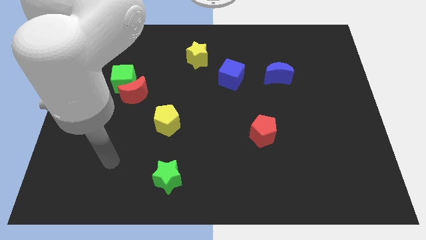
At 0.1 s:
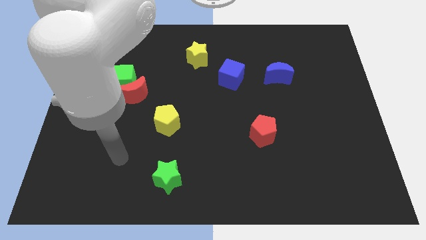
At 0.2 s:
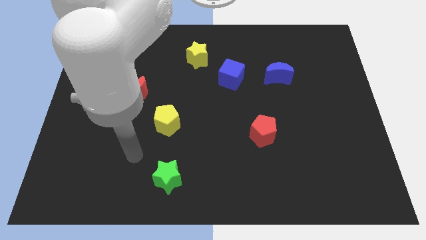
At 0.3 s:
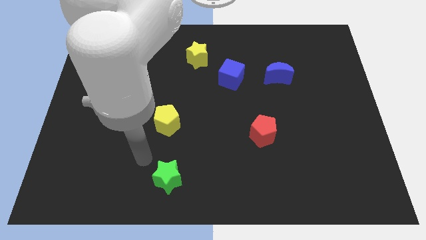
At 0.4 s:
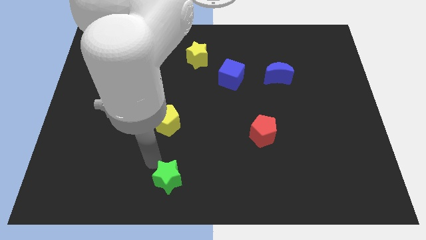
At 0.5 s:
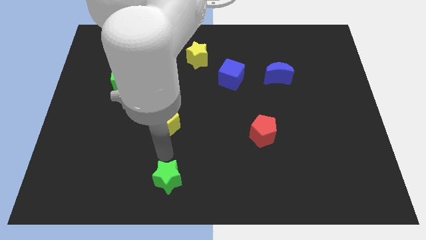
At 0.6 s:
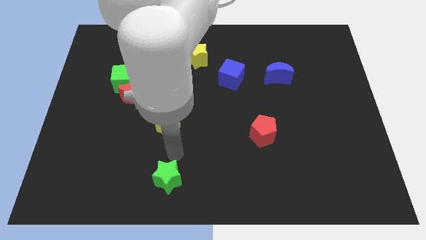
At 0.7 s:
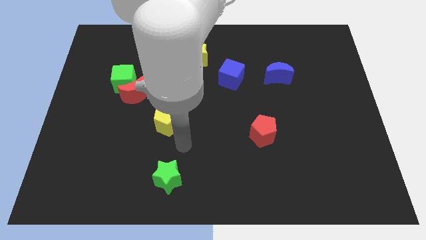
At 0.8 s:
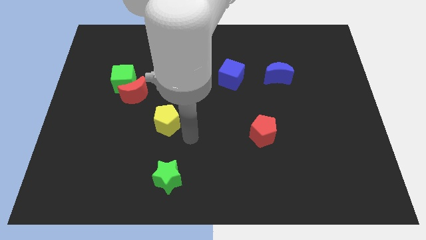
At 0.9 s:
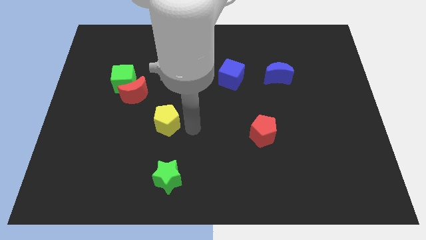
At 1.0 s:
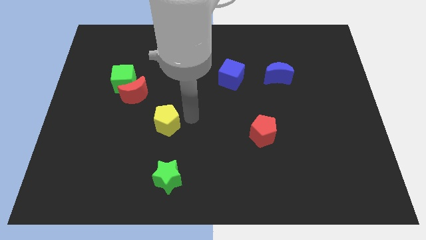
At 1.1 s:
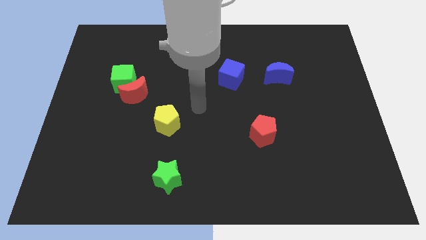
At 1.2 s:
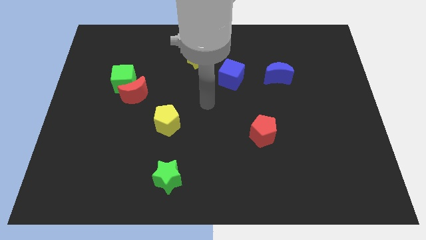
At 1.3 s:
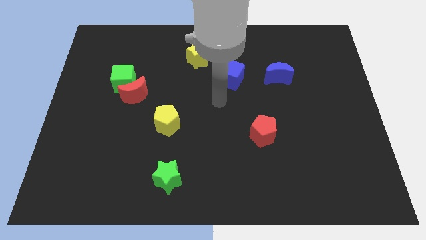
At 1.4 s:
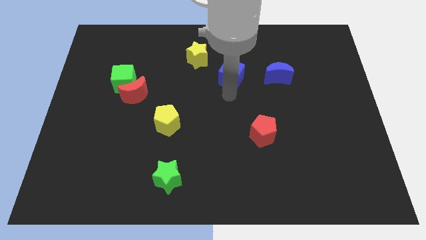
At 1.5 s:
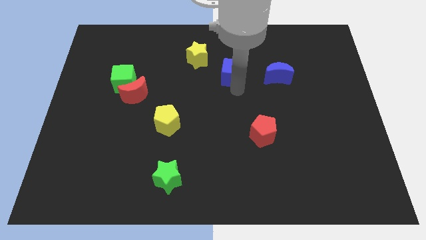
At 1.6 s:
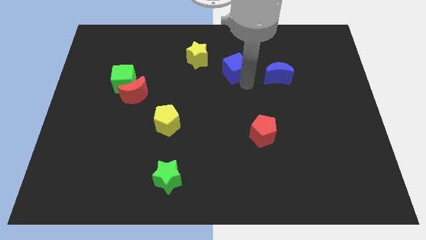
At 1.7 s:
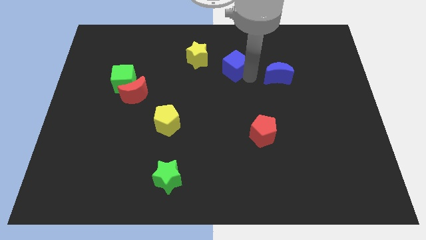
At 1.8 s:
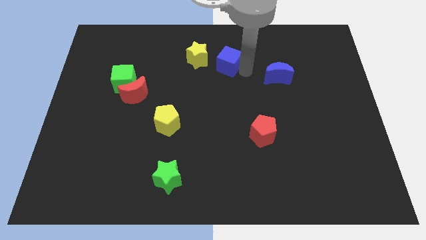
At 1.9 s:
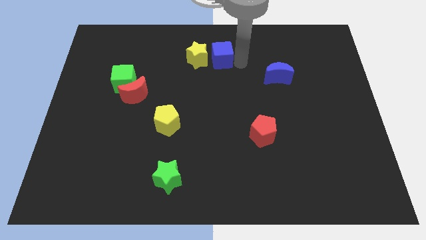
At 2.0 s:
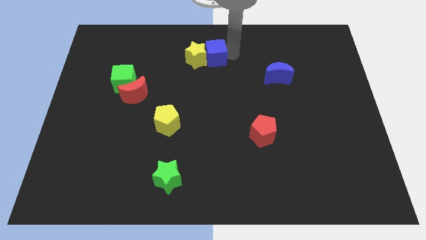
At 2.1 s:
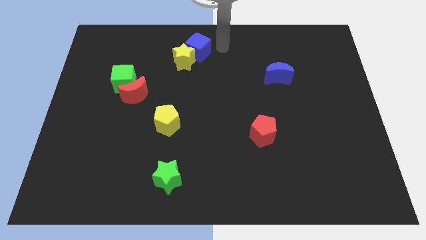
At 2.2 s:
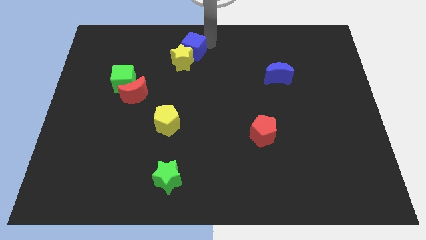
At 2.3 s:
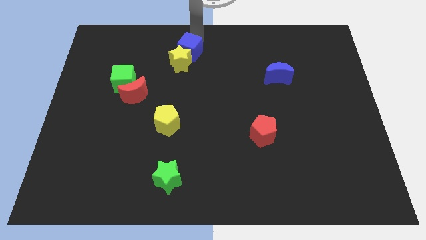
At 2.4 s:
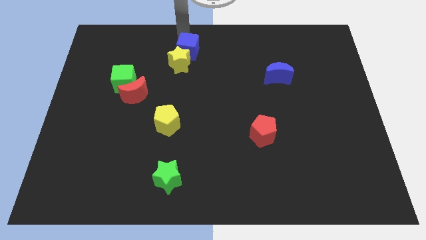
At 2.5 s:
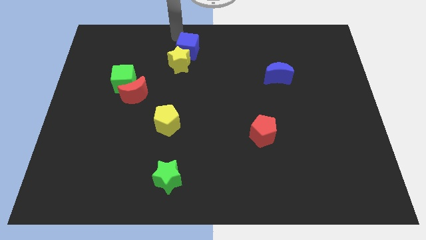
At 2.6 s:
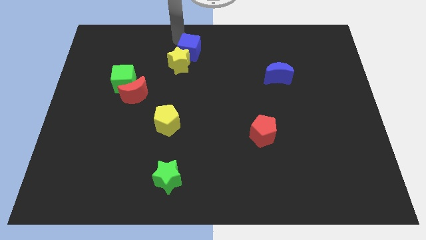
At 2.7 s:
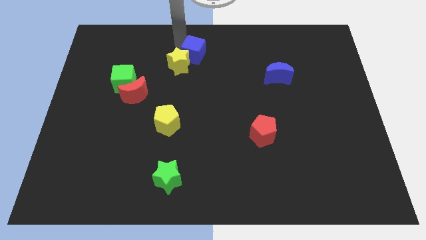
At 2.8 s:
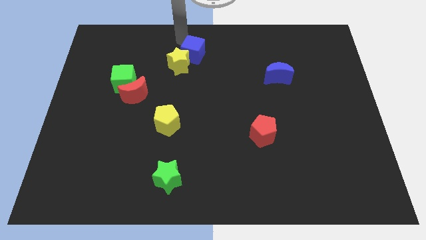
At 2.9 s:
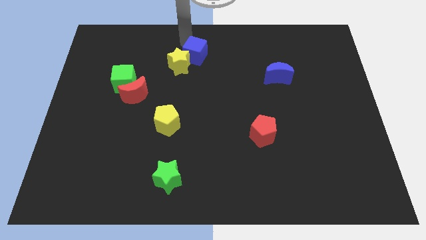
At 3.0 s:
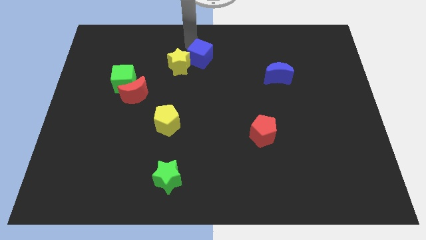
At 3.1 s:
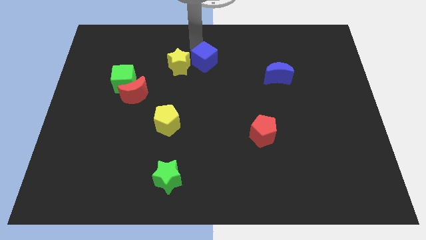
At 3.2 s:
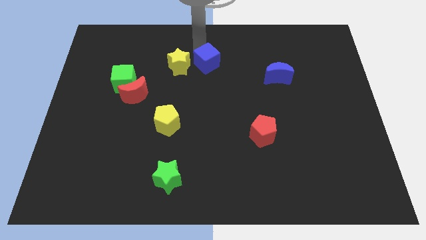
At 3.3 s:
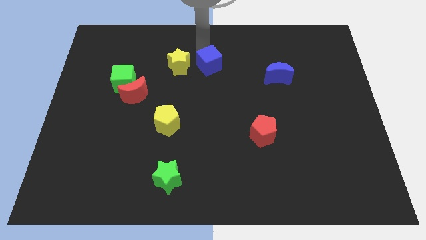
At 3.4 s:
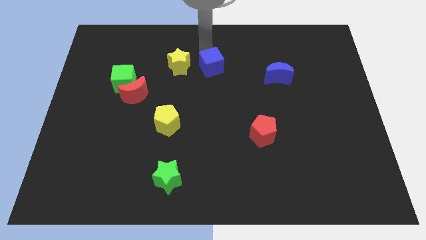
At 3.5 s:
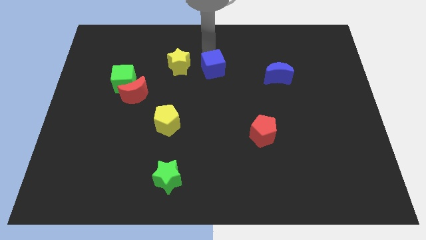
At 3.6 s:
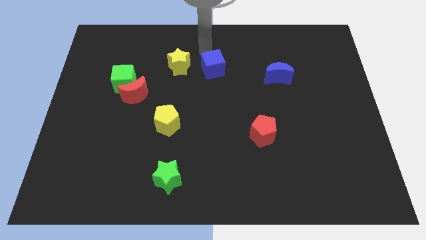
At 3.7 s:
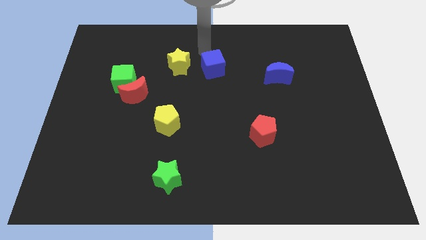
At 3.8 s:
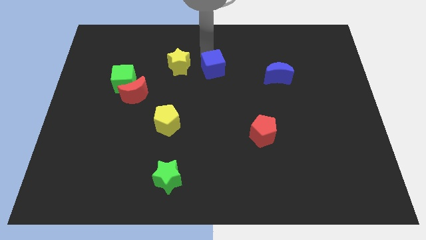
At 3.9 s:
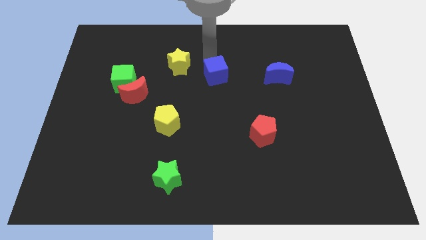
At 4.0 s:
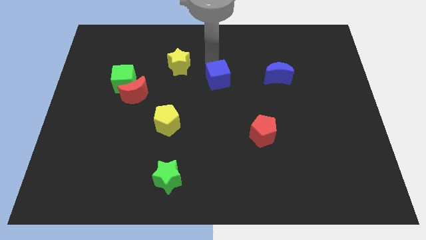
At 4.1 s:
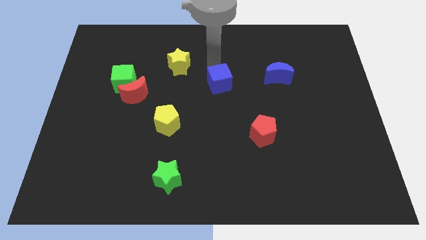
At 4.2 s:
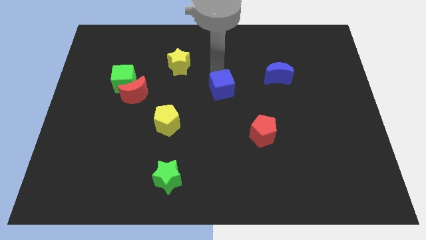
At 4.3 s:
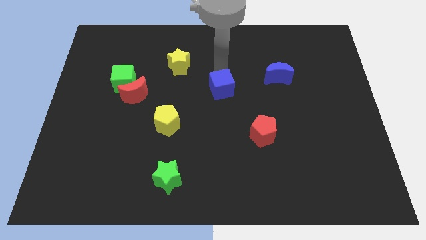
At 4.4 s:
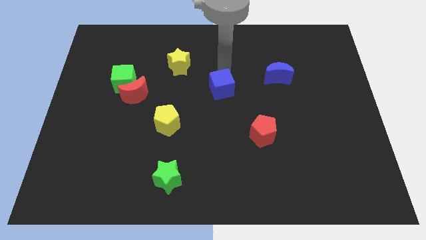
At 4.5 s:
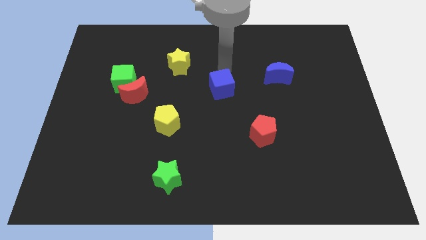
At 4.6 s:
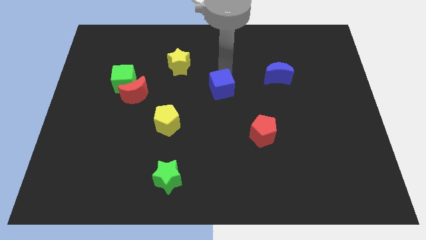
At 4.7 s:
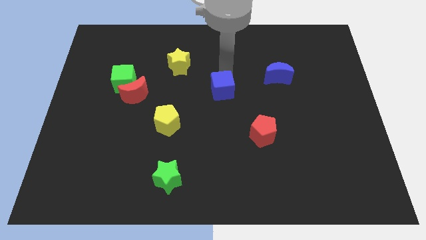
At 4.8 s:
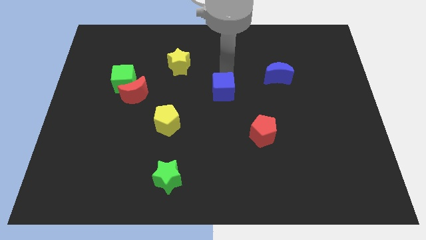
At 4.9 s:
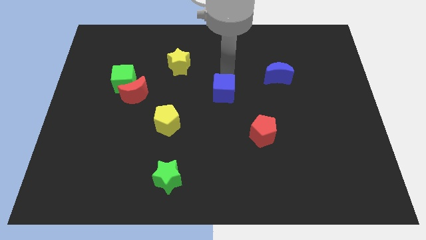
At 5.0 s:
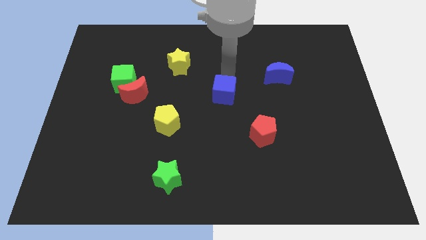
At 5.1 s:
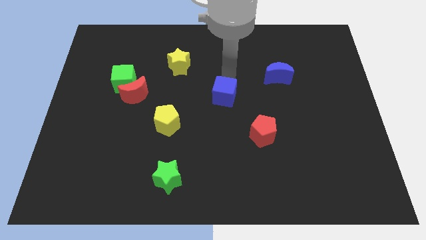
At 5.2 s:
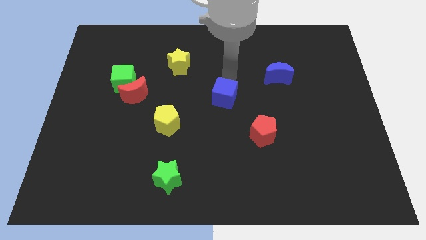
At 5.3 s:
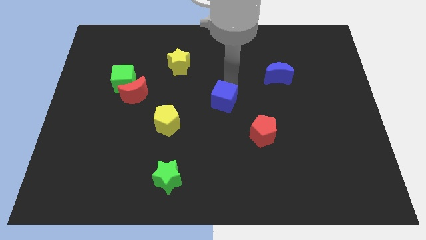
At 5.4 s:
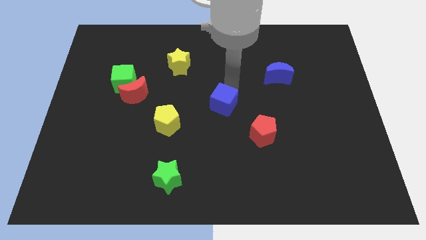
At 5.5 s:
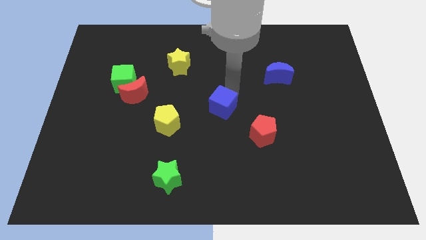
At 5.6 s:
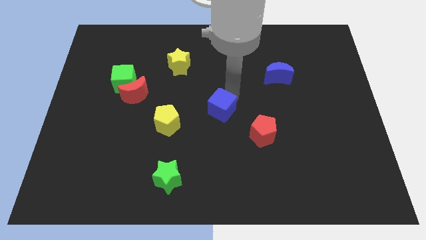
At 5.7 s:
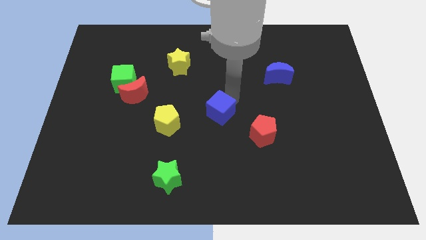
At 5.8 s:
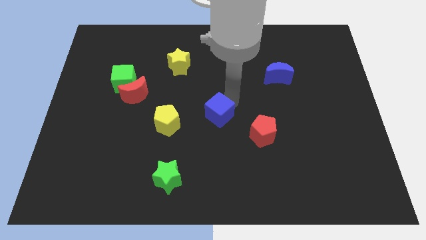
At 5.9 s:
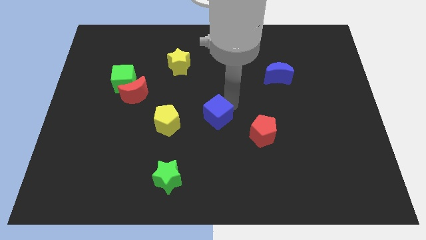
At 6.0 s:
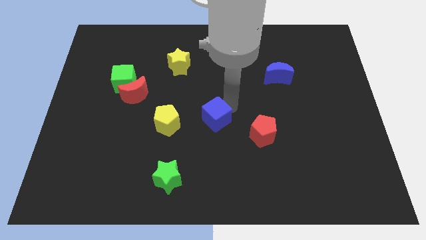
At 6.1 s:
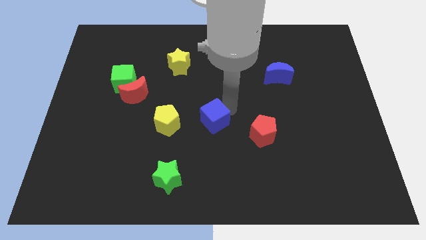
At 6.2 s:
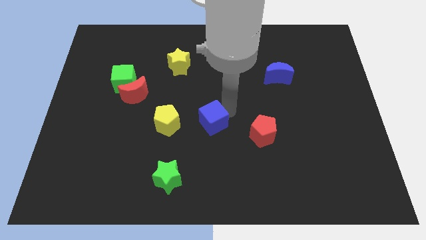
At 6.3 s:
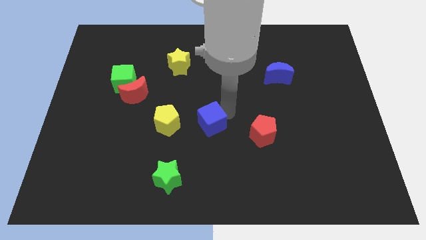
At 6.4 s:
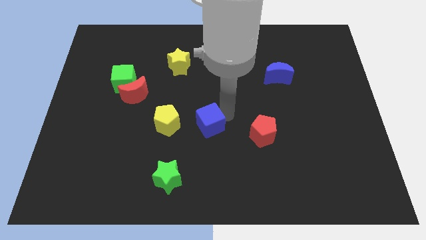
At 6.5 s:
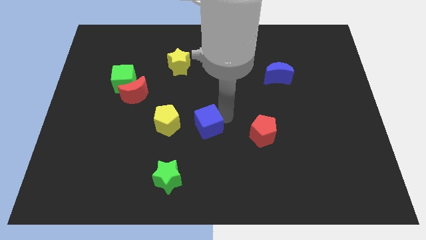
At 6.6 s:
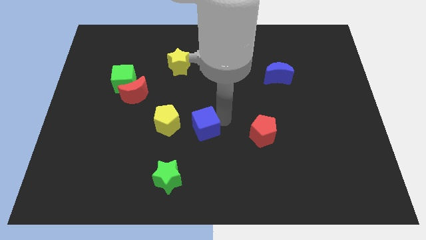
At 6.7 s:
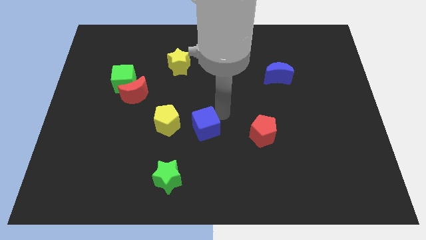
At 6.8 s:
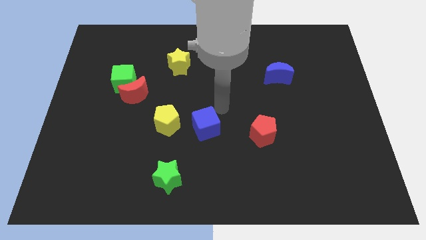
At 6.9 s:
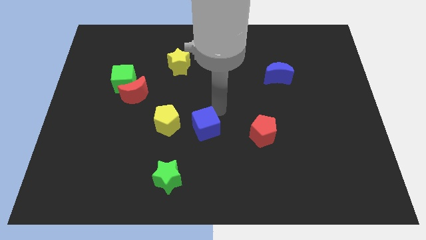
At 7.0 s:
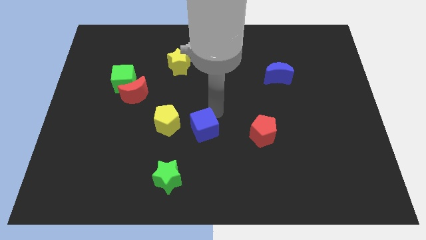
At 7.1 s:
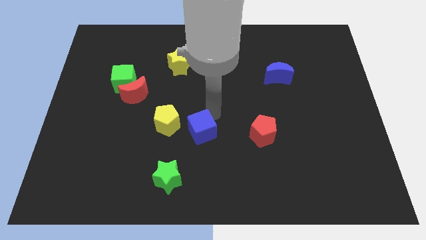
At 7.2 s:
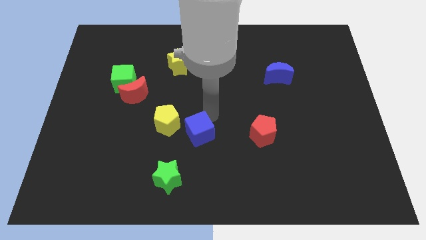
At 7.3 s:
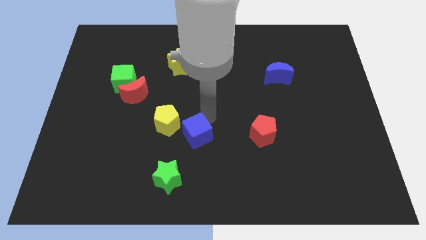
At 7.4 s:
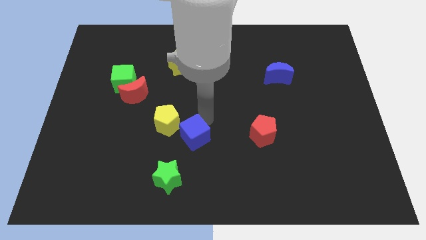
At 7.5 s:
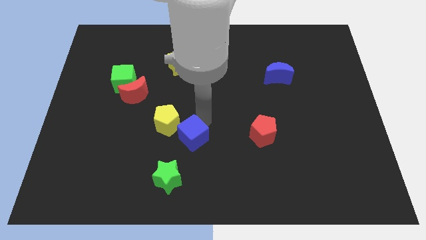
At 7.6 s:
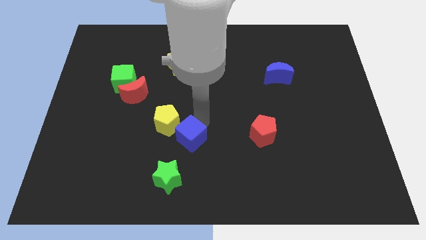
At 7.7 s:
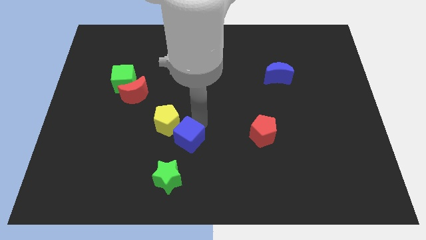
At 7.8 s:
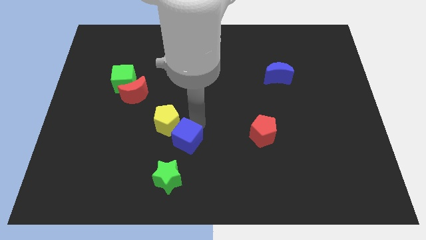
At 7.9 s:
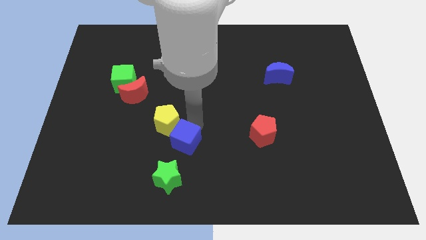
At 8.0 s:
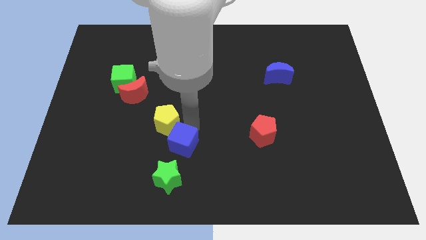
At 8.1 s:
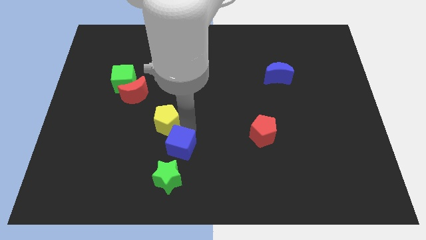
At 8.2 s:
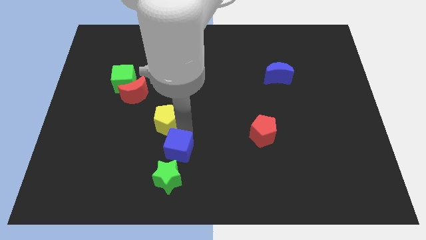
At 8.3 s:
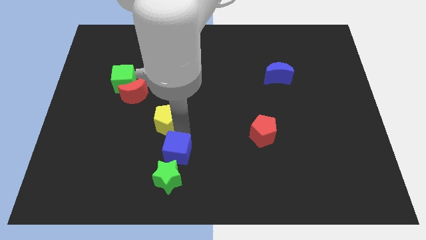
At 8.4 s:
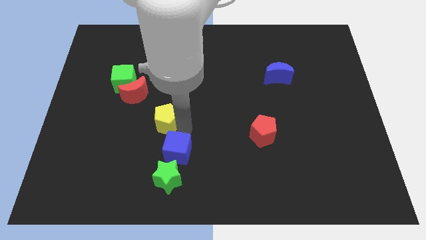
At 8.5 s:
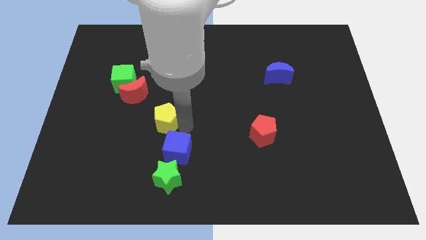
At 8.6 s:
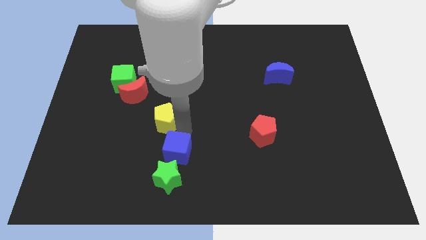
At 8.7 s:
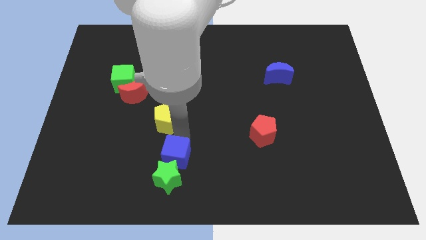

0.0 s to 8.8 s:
move the blue cube to the green star
